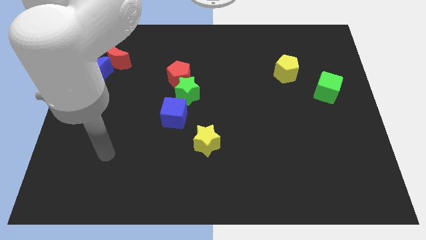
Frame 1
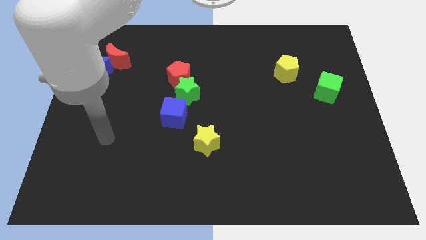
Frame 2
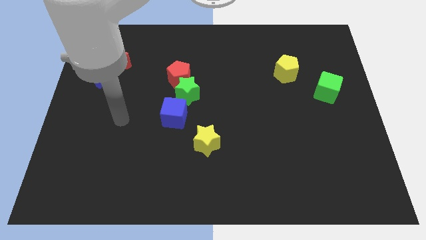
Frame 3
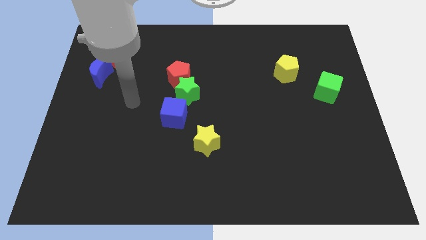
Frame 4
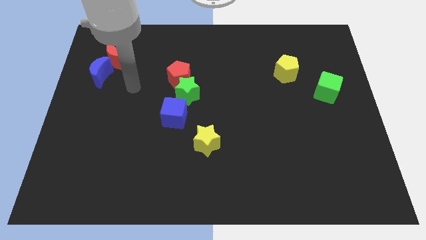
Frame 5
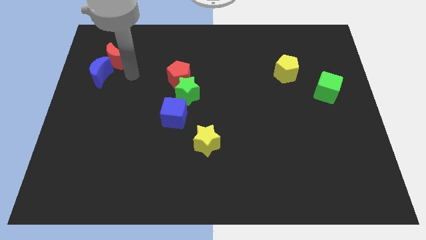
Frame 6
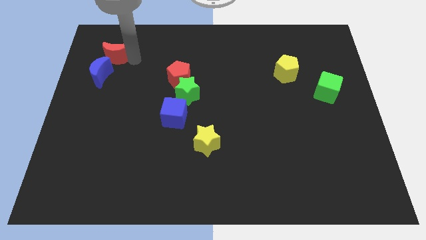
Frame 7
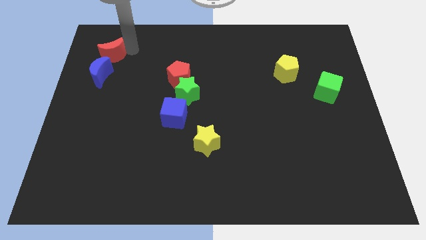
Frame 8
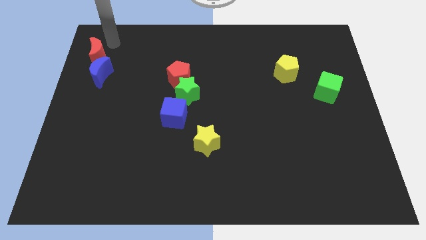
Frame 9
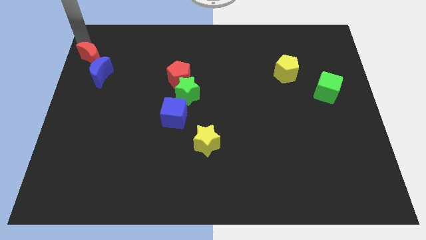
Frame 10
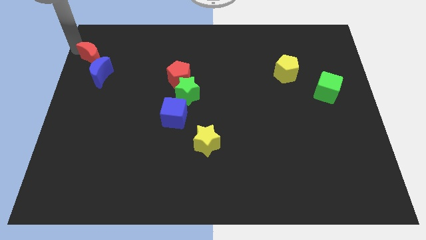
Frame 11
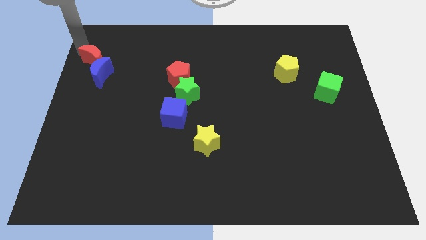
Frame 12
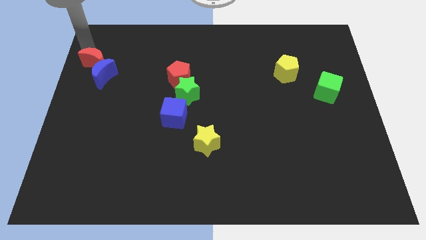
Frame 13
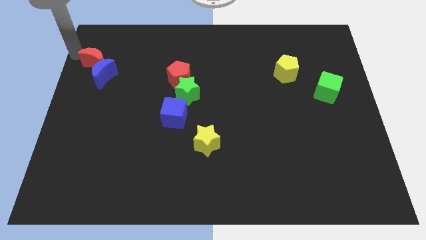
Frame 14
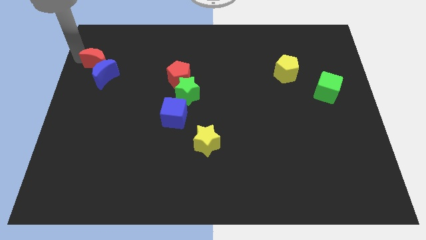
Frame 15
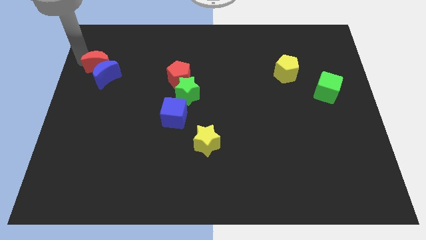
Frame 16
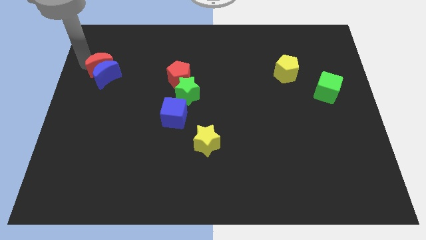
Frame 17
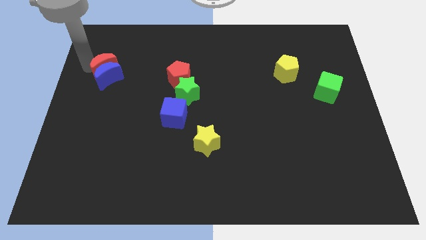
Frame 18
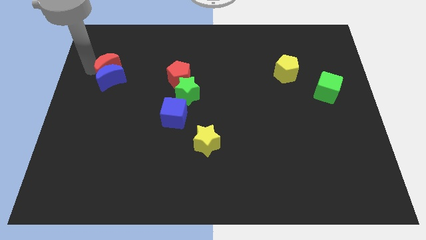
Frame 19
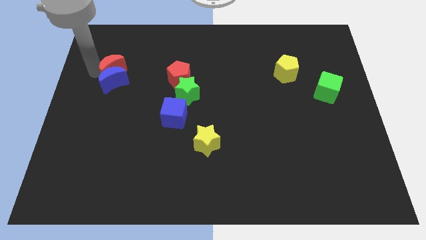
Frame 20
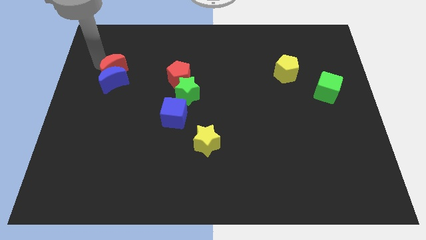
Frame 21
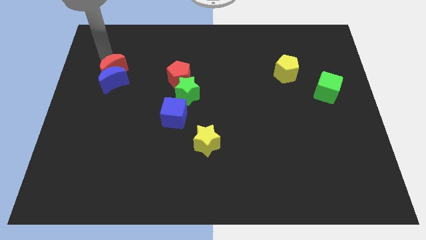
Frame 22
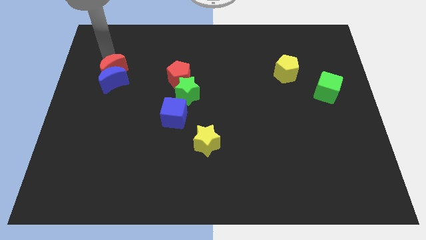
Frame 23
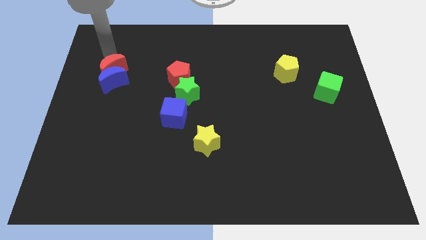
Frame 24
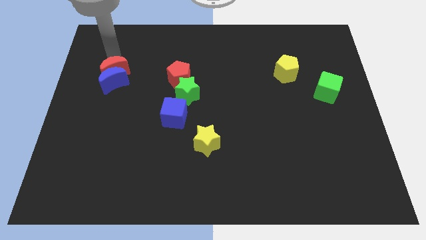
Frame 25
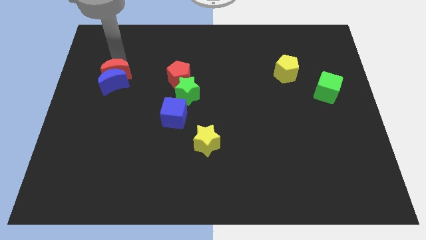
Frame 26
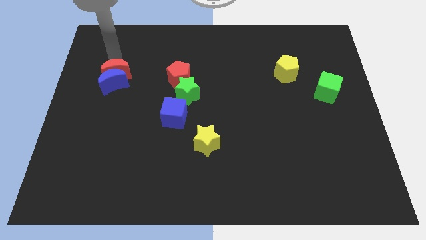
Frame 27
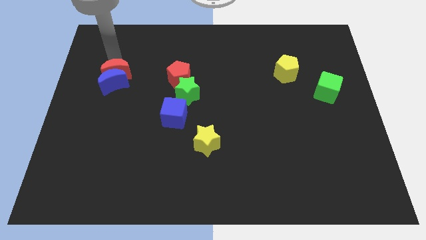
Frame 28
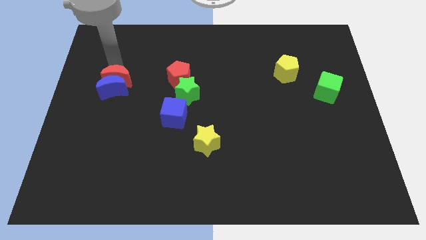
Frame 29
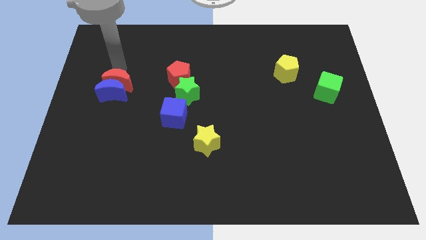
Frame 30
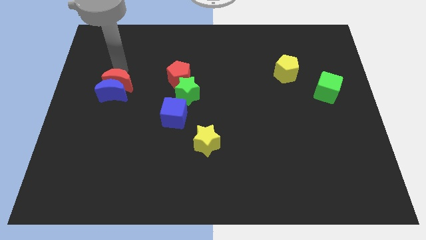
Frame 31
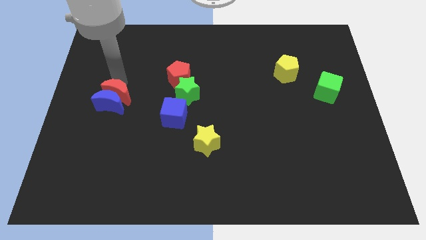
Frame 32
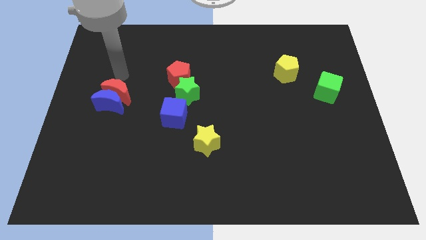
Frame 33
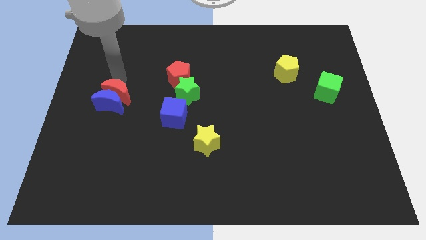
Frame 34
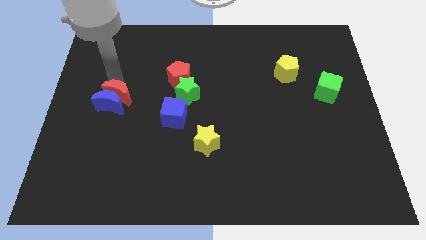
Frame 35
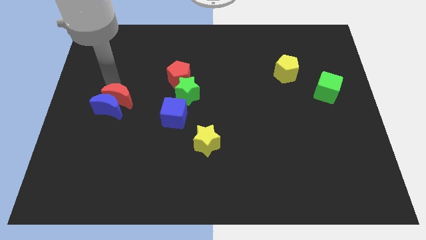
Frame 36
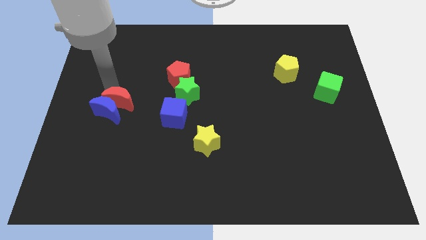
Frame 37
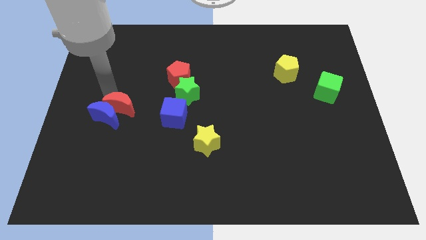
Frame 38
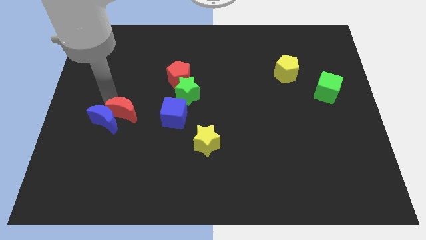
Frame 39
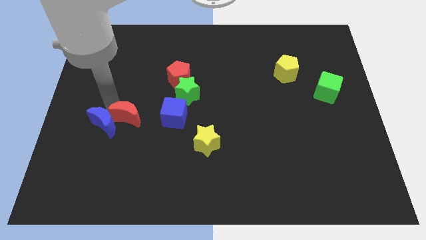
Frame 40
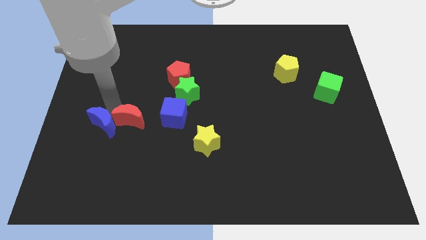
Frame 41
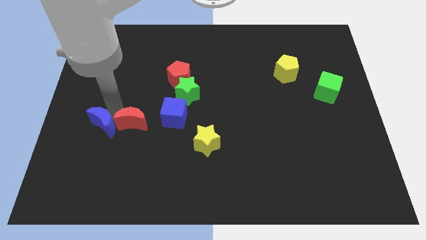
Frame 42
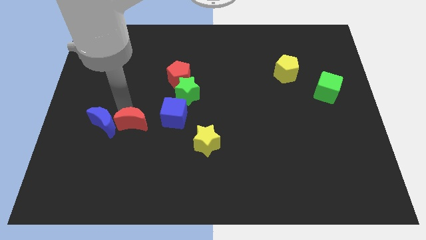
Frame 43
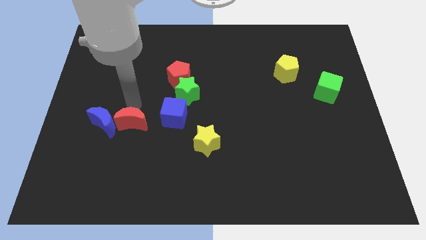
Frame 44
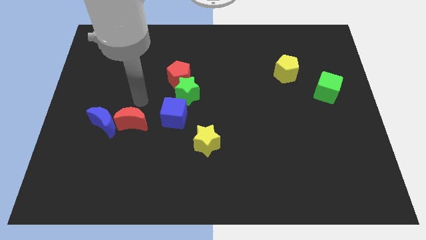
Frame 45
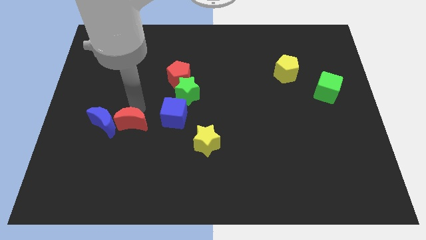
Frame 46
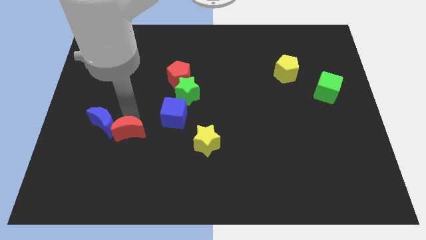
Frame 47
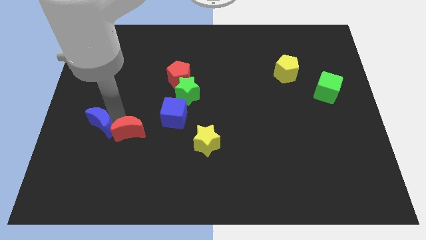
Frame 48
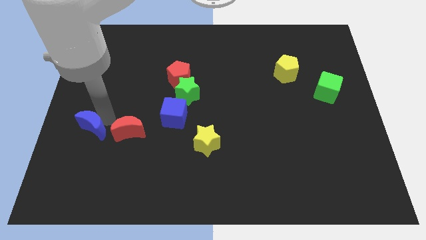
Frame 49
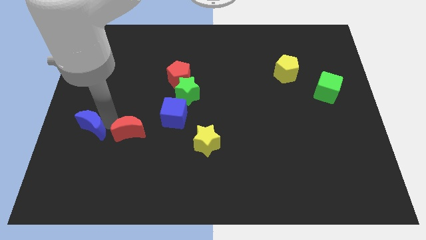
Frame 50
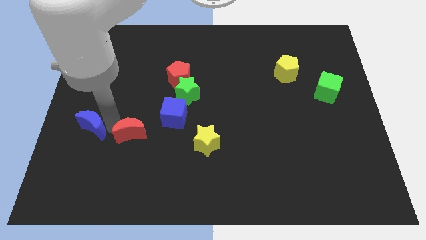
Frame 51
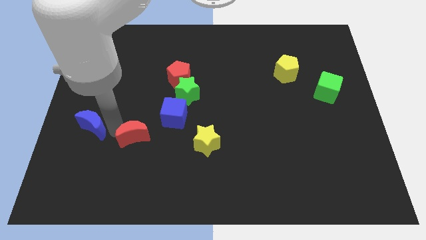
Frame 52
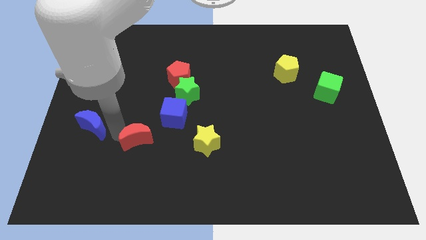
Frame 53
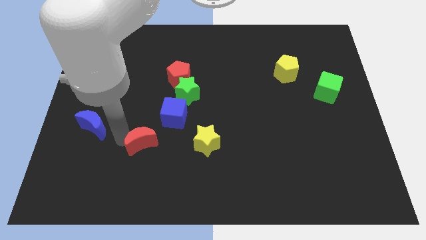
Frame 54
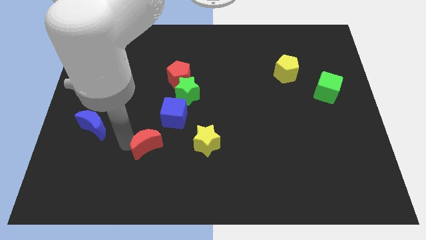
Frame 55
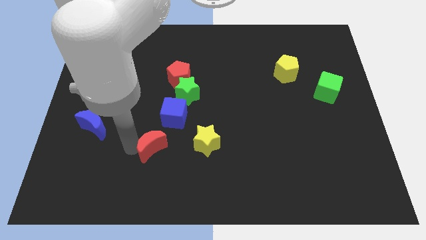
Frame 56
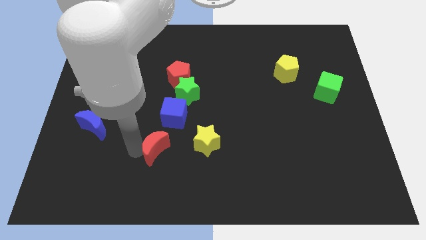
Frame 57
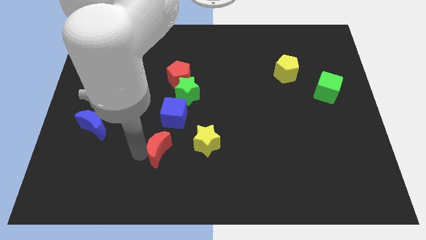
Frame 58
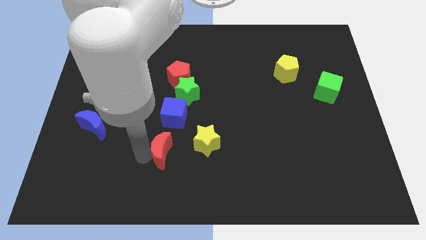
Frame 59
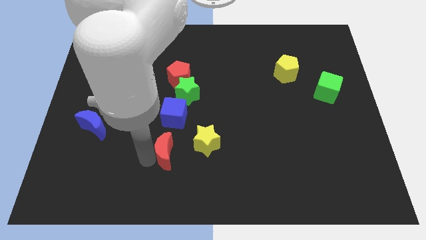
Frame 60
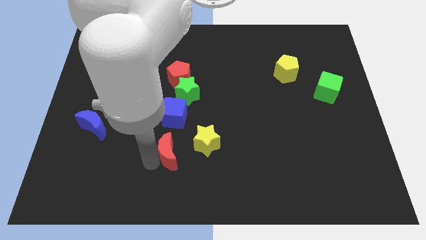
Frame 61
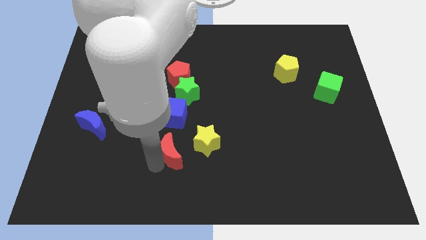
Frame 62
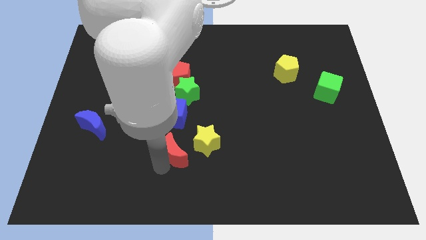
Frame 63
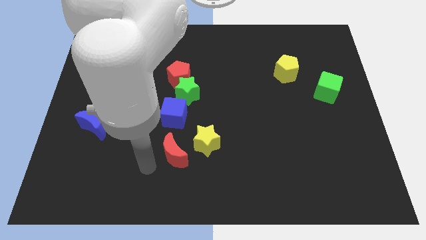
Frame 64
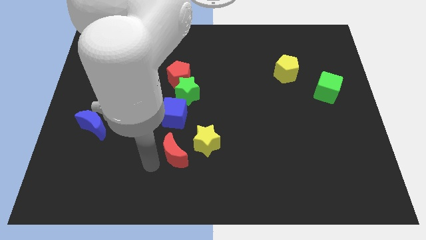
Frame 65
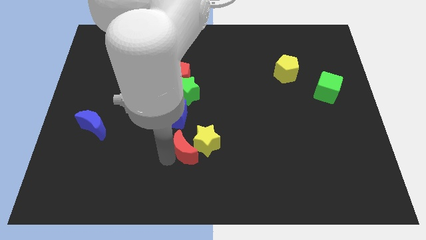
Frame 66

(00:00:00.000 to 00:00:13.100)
push the red moon to the yellow star

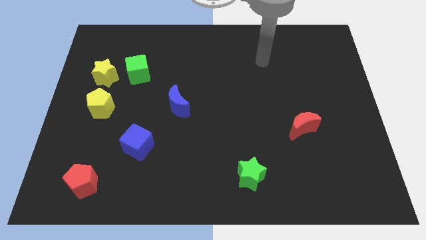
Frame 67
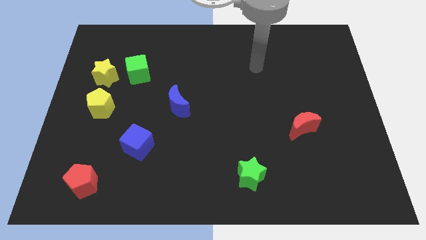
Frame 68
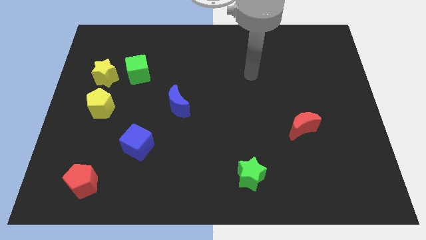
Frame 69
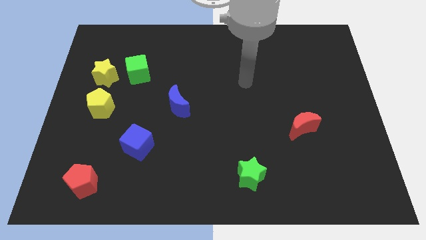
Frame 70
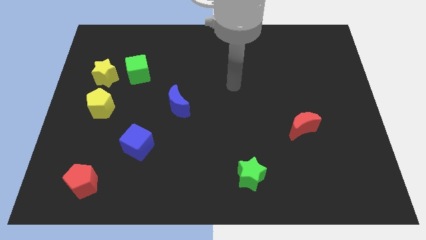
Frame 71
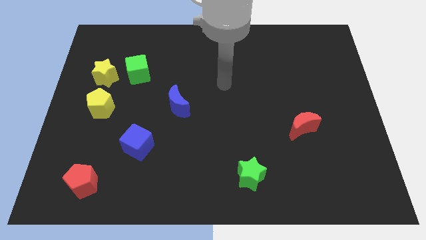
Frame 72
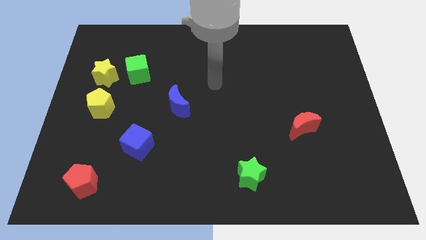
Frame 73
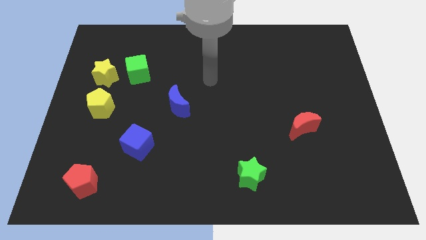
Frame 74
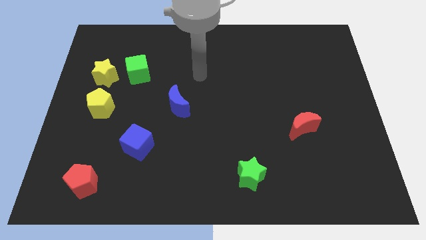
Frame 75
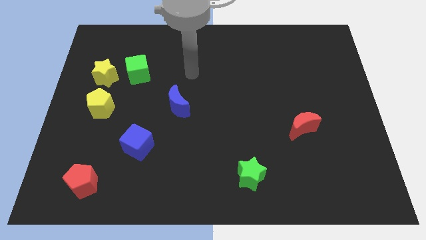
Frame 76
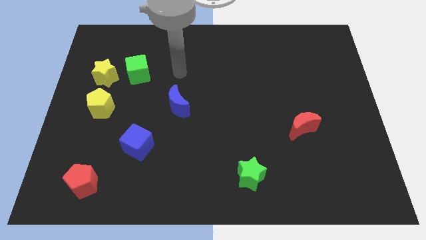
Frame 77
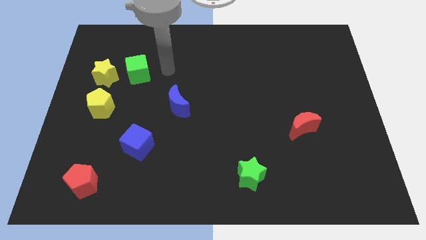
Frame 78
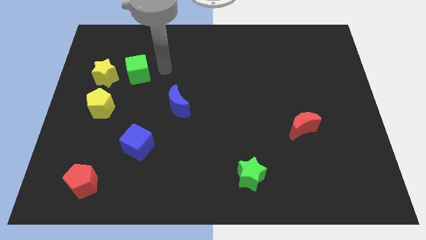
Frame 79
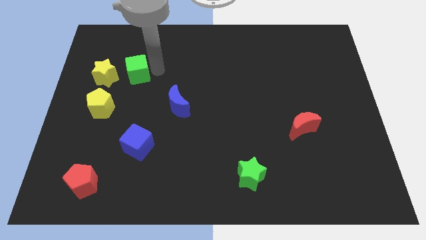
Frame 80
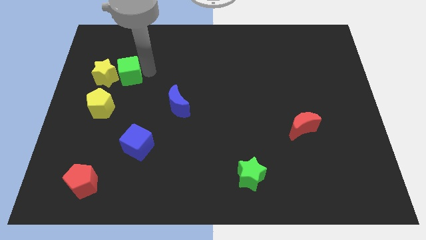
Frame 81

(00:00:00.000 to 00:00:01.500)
put the green cube to the yellow star
